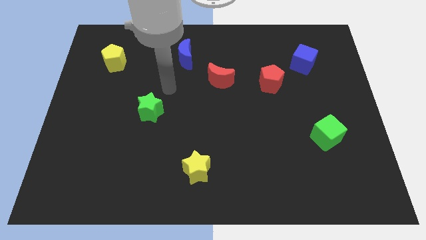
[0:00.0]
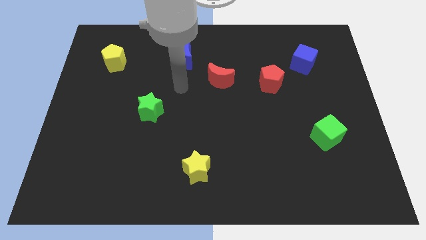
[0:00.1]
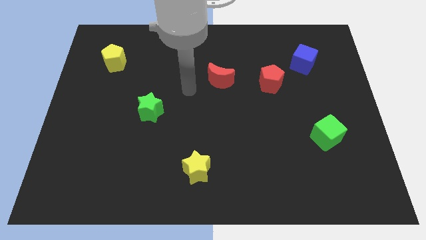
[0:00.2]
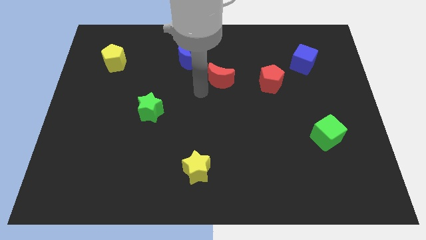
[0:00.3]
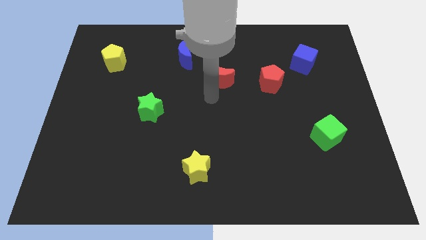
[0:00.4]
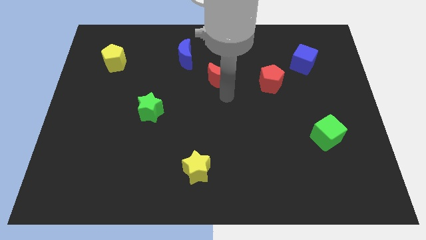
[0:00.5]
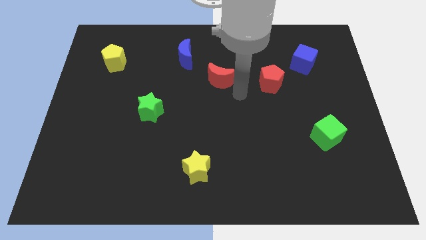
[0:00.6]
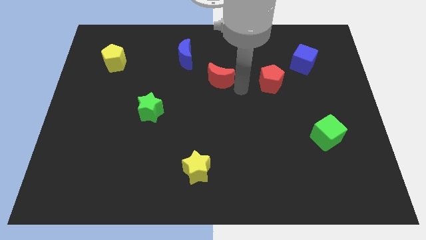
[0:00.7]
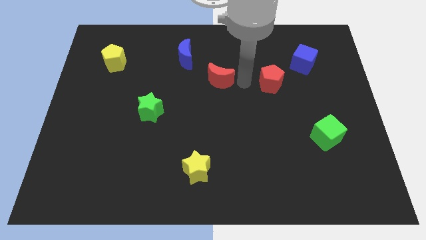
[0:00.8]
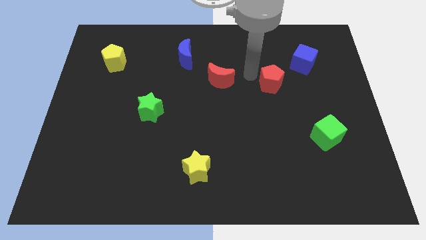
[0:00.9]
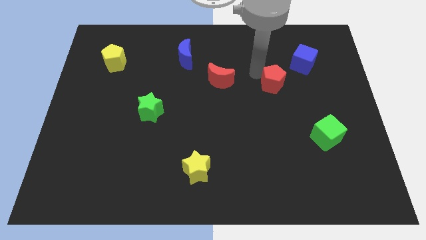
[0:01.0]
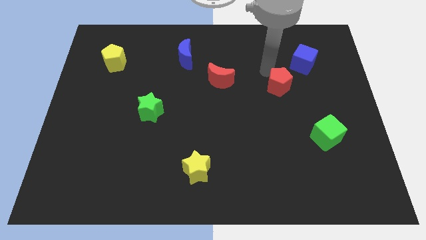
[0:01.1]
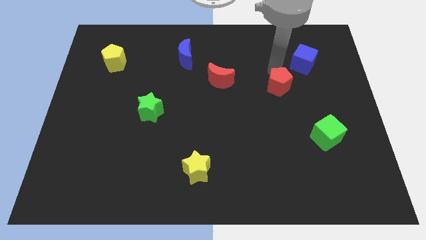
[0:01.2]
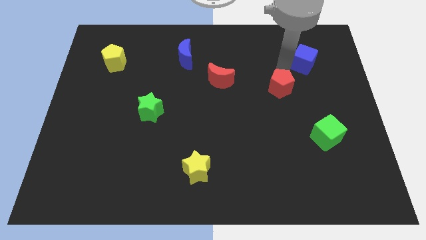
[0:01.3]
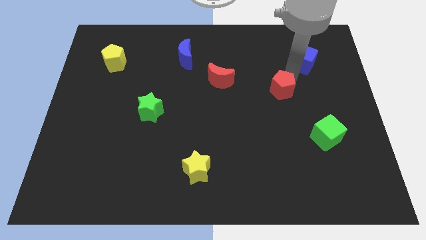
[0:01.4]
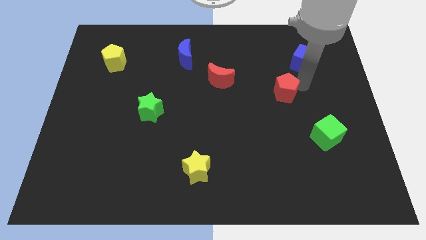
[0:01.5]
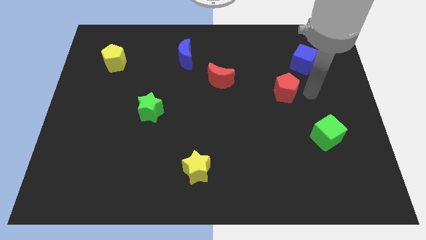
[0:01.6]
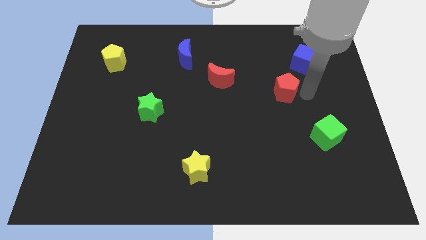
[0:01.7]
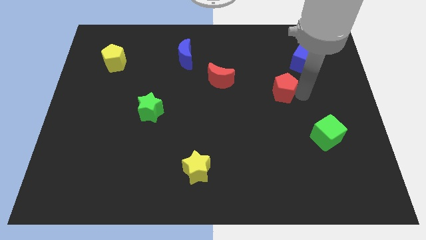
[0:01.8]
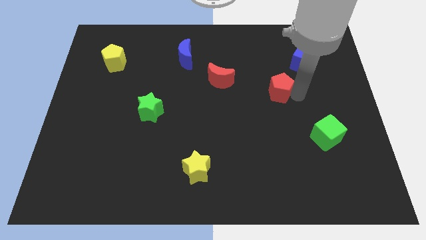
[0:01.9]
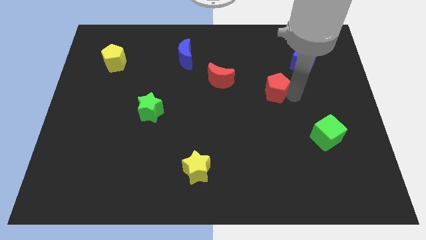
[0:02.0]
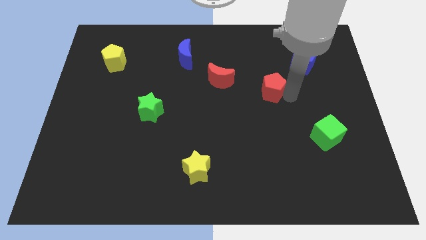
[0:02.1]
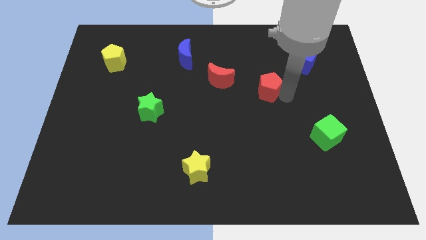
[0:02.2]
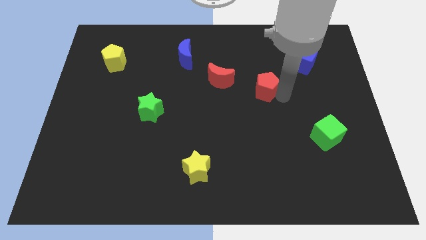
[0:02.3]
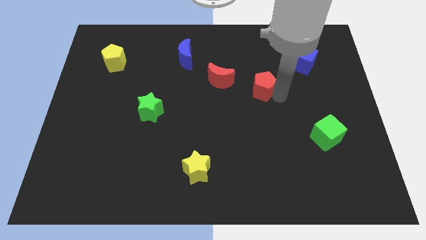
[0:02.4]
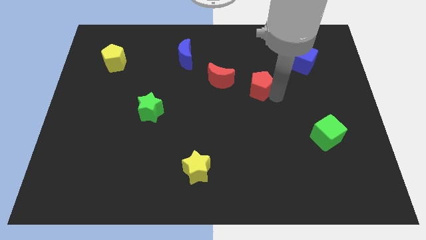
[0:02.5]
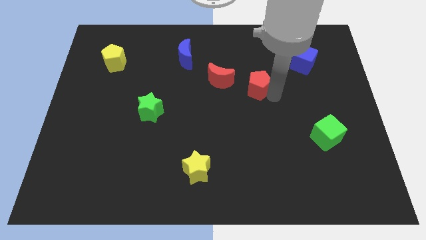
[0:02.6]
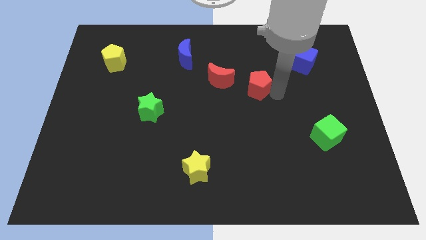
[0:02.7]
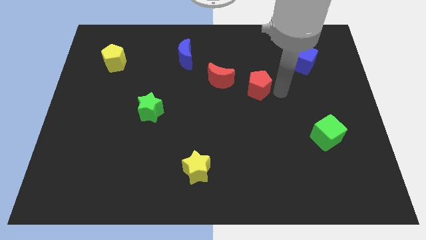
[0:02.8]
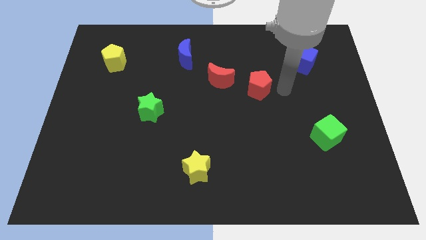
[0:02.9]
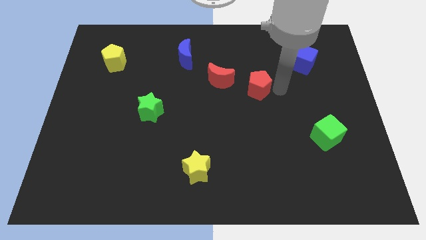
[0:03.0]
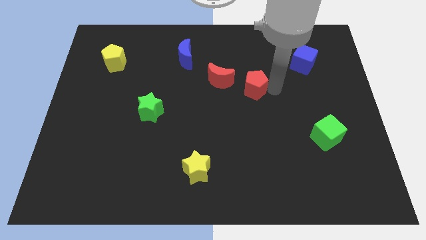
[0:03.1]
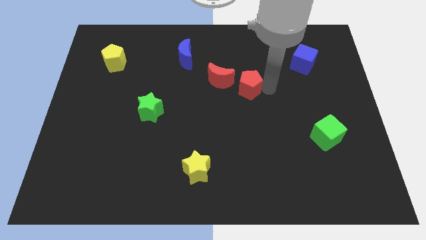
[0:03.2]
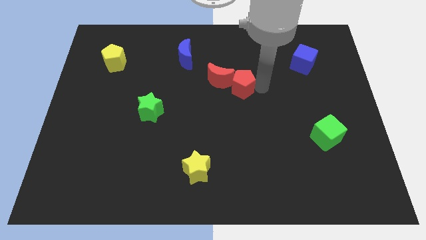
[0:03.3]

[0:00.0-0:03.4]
slightly push the red pentagon to the left

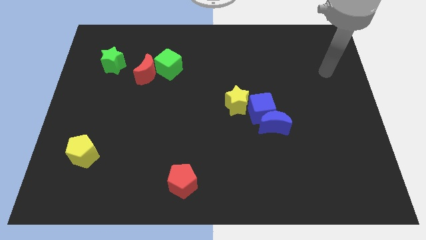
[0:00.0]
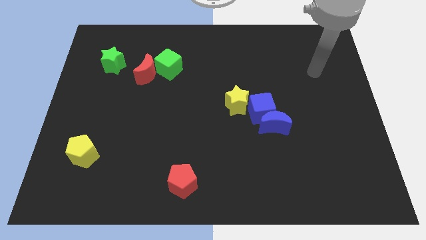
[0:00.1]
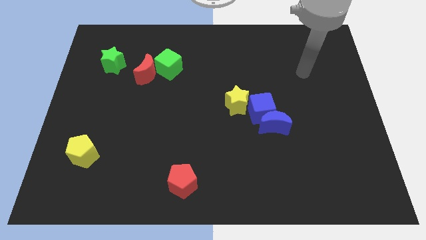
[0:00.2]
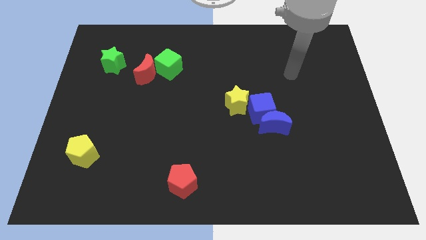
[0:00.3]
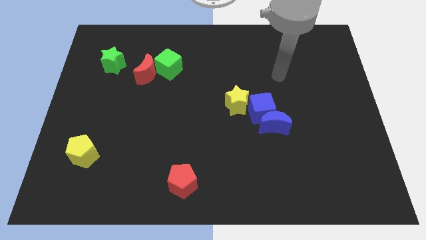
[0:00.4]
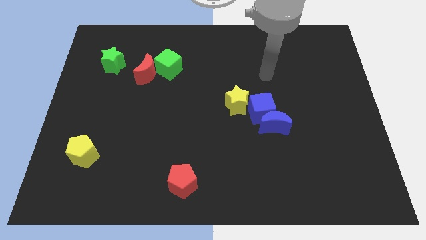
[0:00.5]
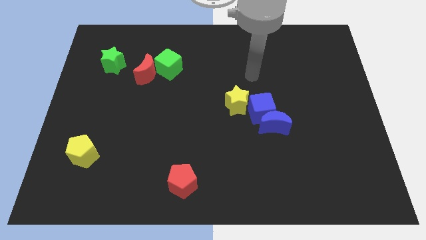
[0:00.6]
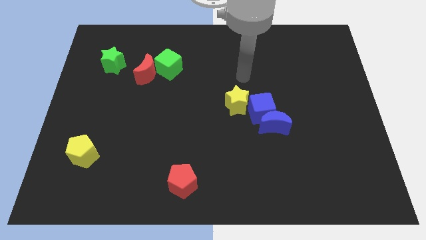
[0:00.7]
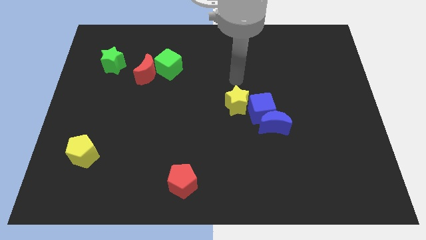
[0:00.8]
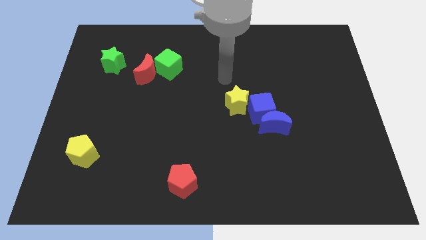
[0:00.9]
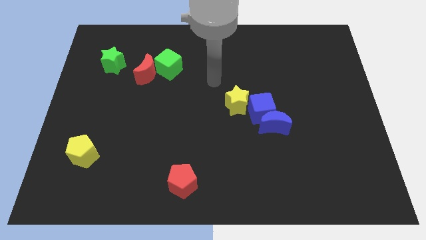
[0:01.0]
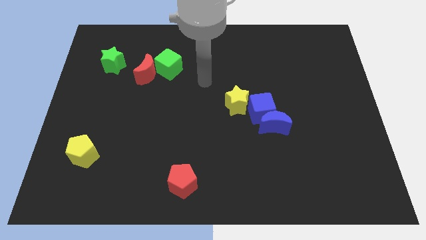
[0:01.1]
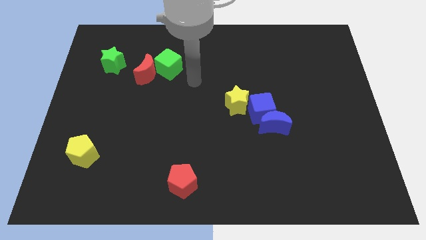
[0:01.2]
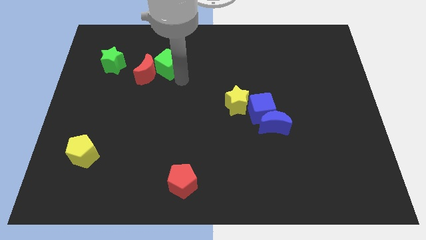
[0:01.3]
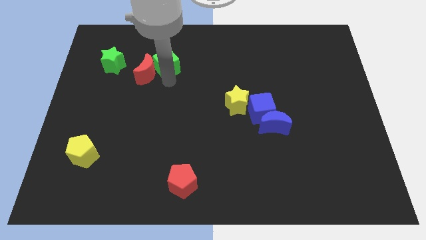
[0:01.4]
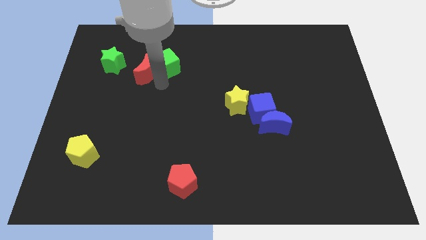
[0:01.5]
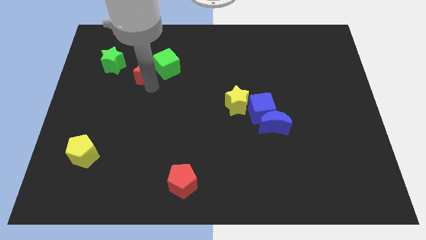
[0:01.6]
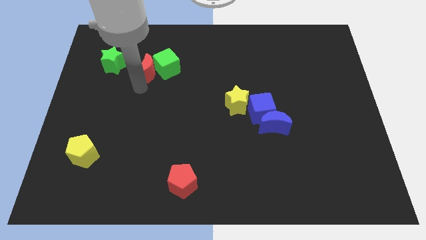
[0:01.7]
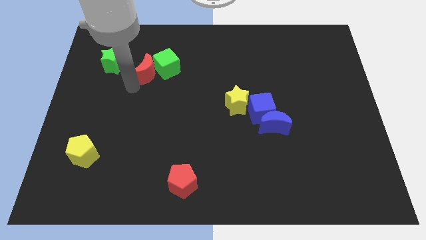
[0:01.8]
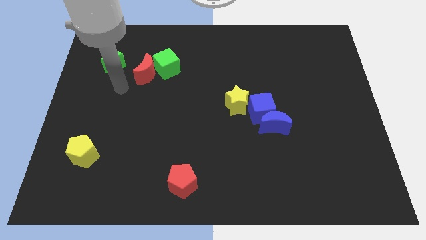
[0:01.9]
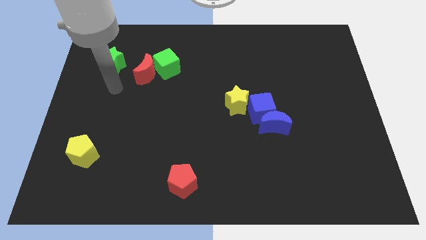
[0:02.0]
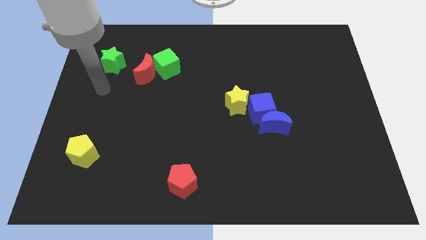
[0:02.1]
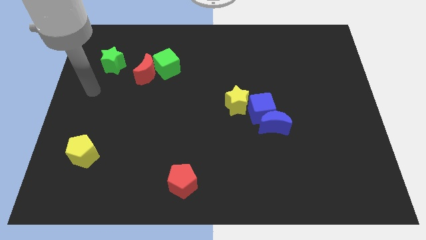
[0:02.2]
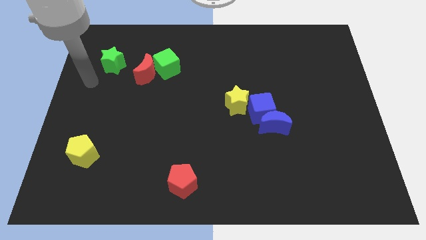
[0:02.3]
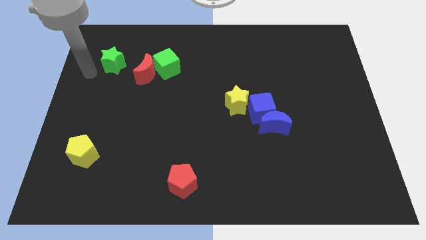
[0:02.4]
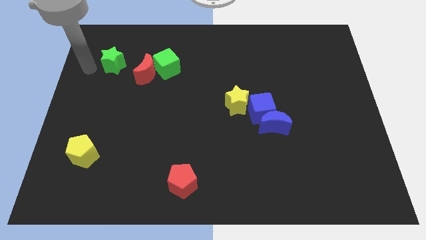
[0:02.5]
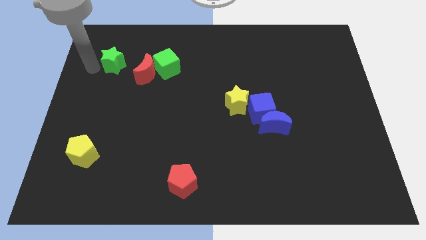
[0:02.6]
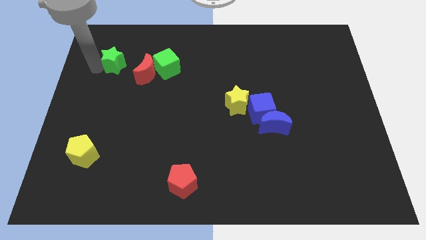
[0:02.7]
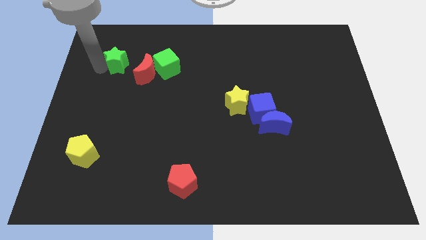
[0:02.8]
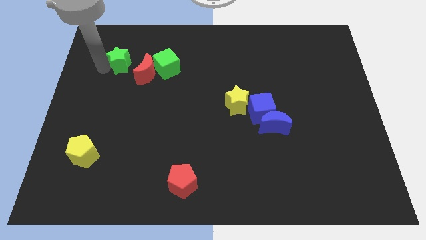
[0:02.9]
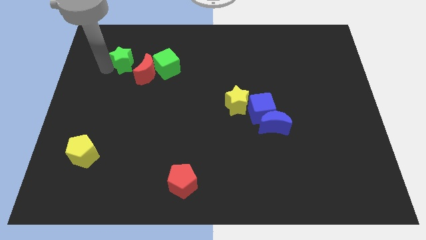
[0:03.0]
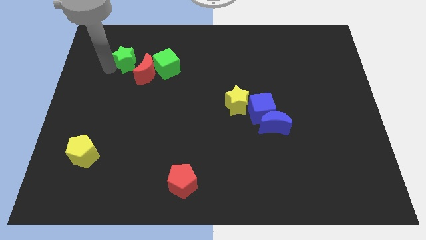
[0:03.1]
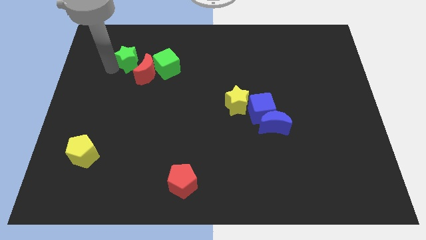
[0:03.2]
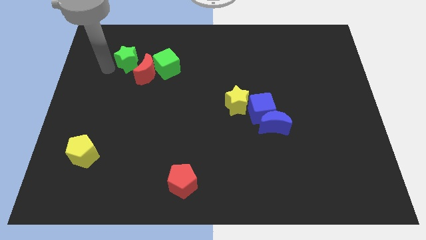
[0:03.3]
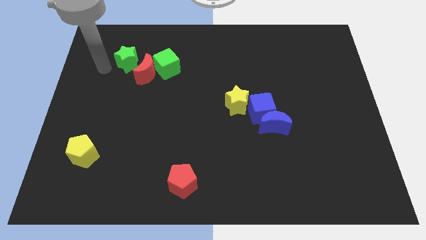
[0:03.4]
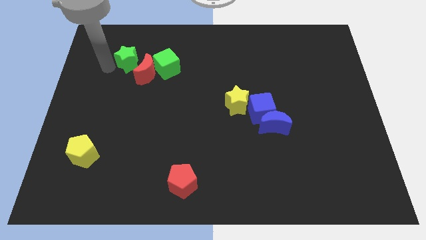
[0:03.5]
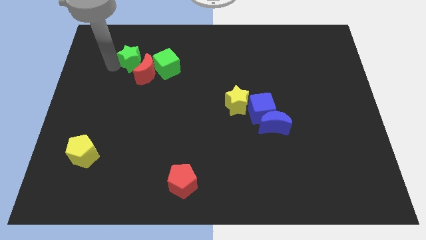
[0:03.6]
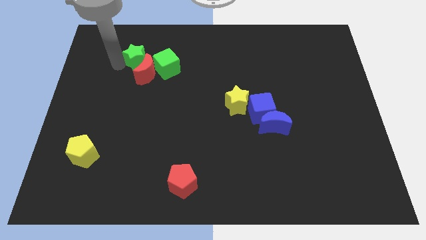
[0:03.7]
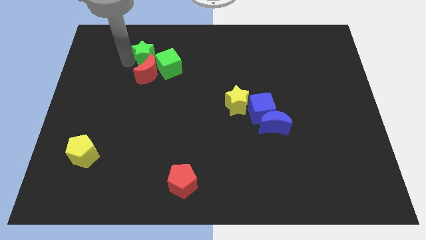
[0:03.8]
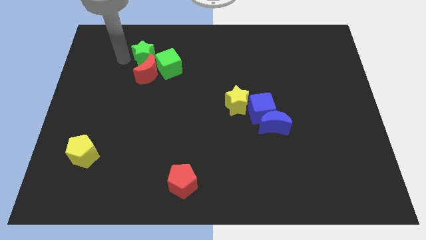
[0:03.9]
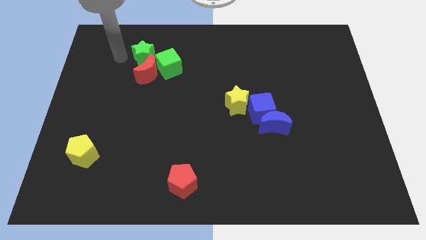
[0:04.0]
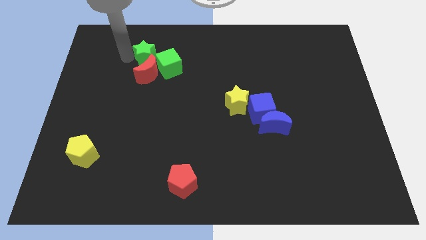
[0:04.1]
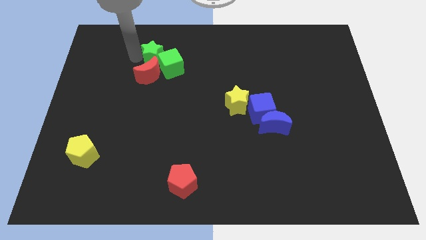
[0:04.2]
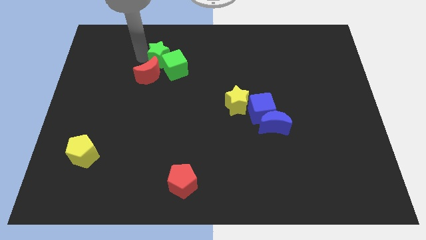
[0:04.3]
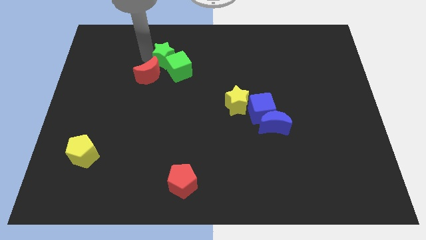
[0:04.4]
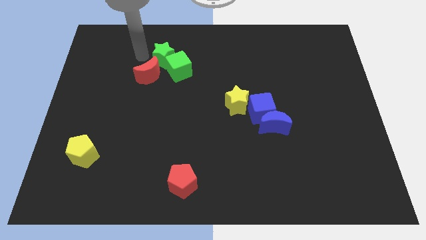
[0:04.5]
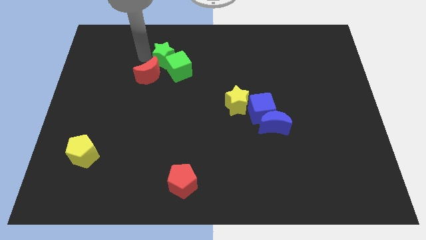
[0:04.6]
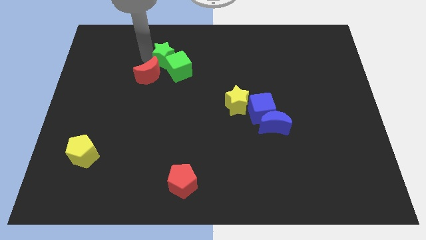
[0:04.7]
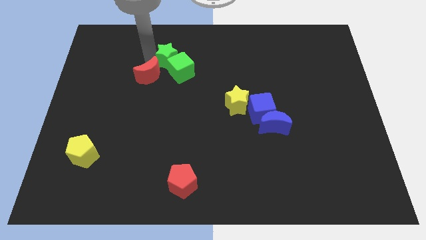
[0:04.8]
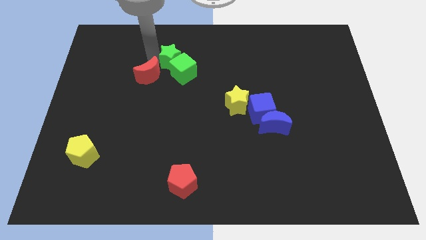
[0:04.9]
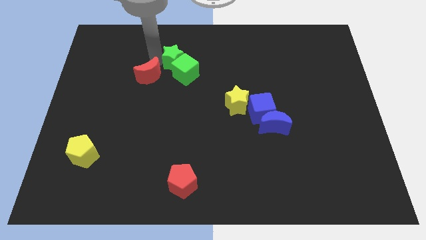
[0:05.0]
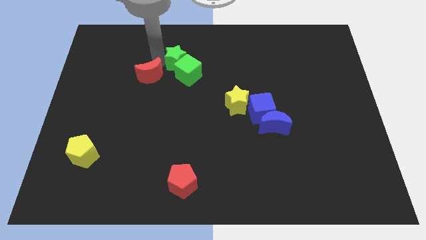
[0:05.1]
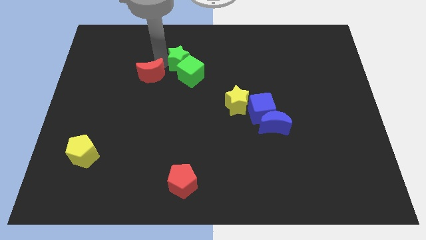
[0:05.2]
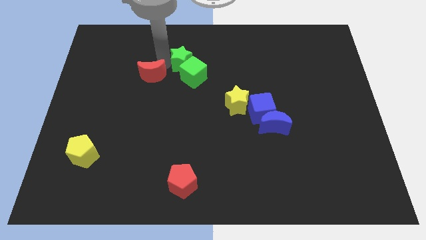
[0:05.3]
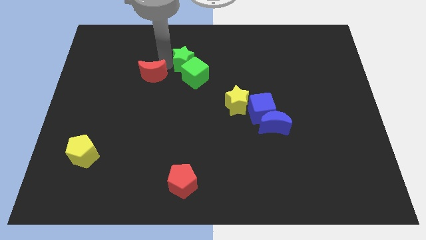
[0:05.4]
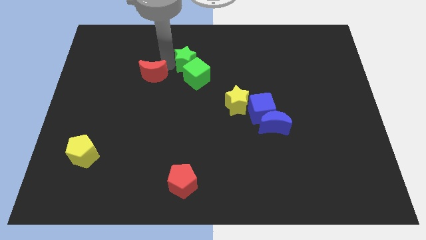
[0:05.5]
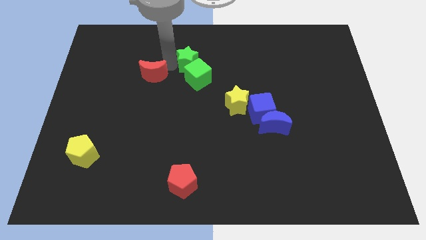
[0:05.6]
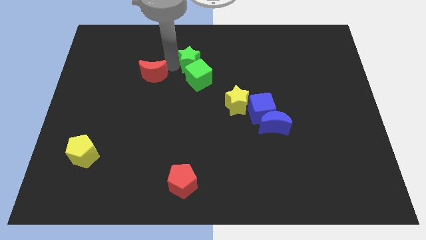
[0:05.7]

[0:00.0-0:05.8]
move the green star to the right
